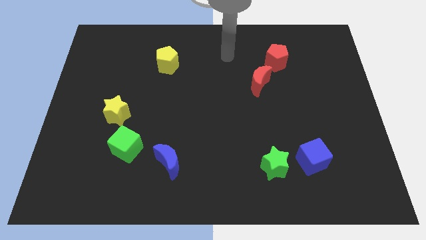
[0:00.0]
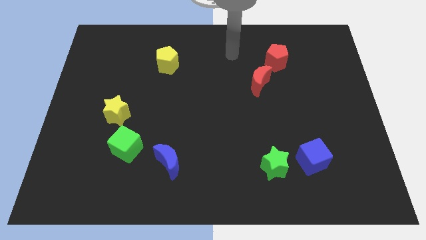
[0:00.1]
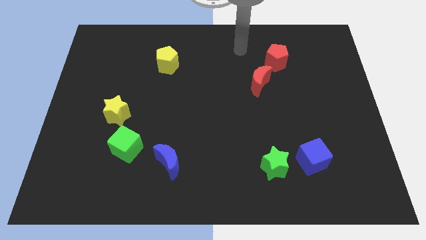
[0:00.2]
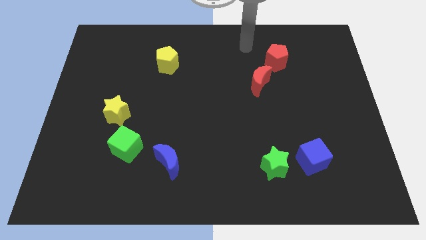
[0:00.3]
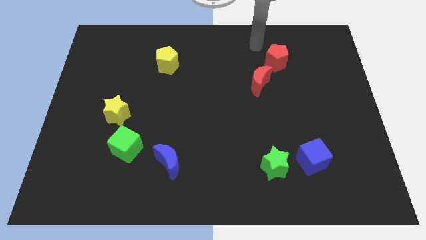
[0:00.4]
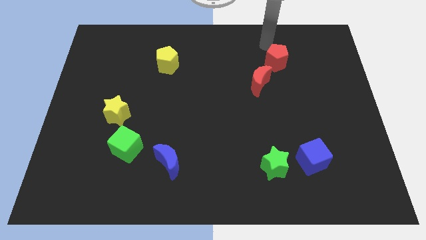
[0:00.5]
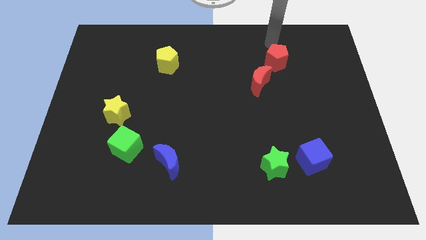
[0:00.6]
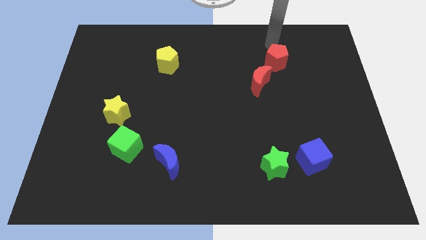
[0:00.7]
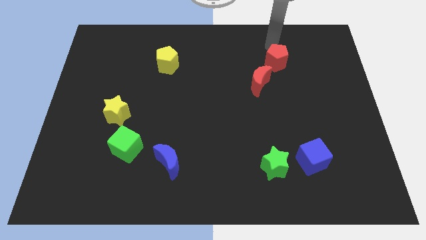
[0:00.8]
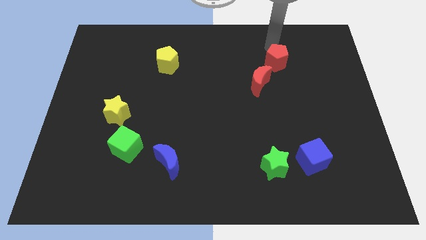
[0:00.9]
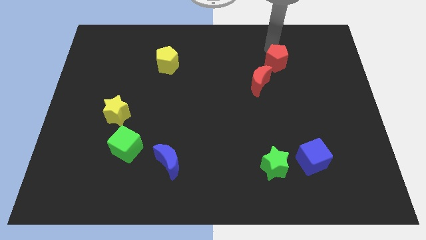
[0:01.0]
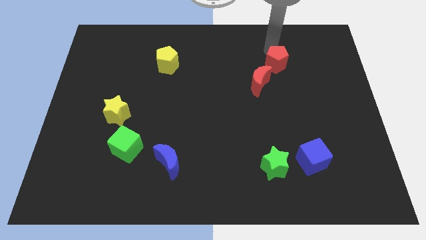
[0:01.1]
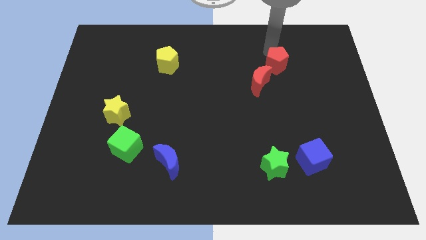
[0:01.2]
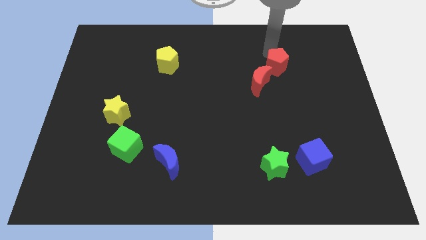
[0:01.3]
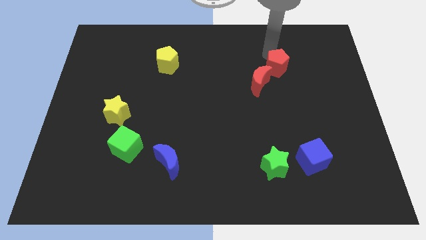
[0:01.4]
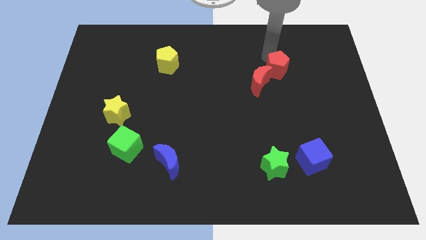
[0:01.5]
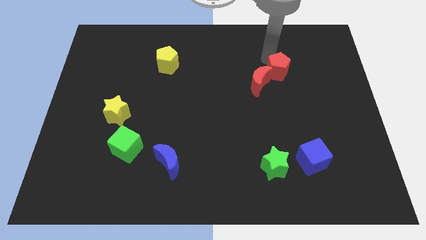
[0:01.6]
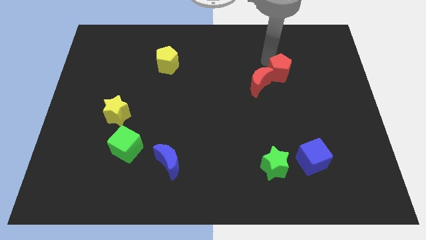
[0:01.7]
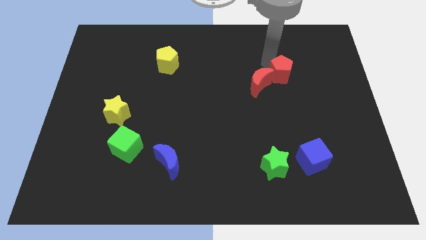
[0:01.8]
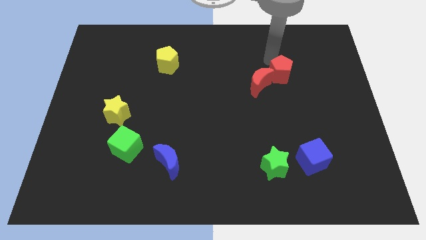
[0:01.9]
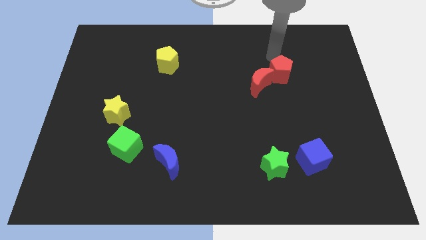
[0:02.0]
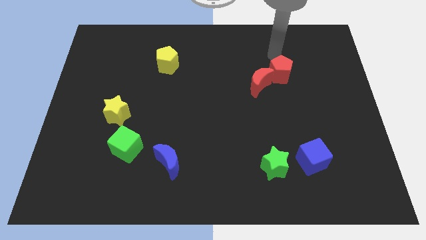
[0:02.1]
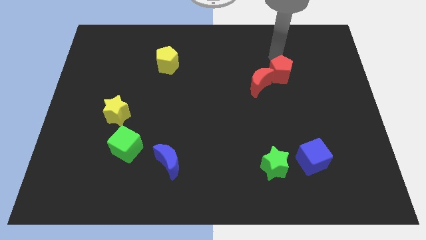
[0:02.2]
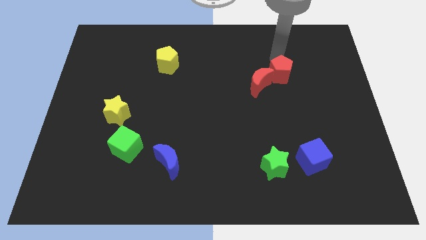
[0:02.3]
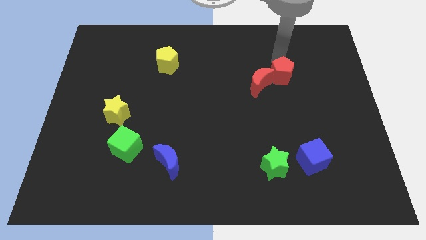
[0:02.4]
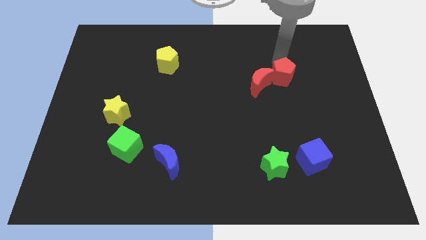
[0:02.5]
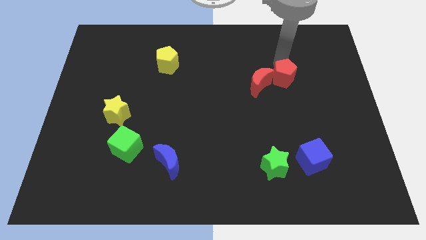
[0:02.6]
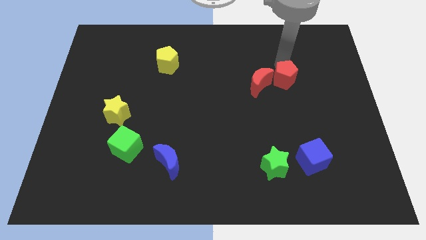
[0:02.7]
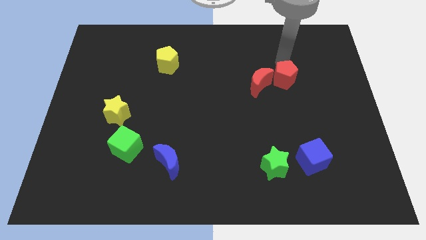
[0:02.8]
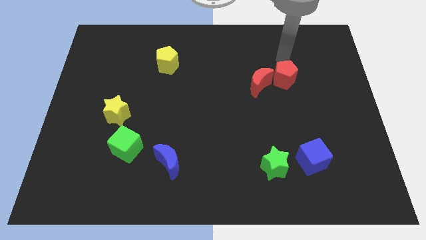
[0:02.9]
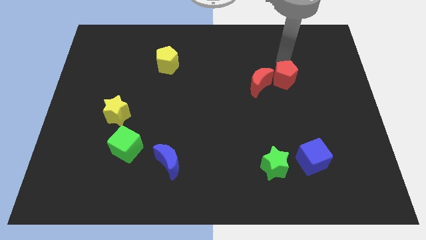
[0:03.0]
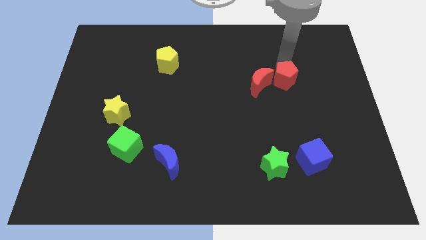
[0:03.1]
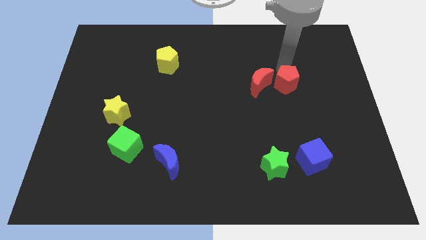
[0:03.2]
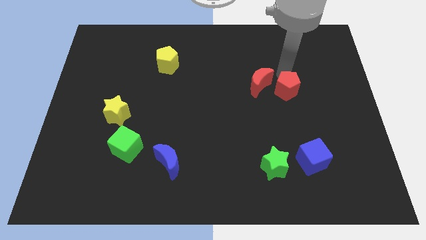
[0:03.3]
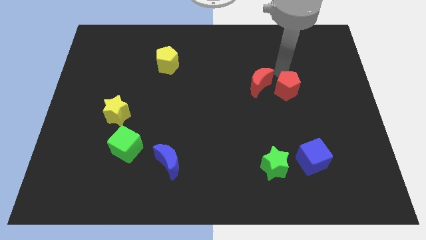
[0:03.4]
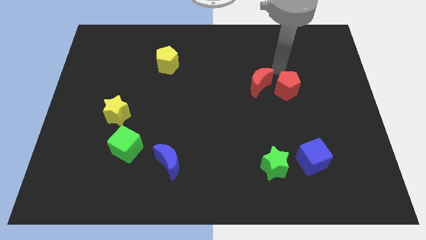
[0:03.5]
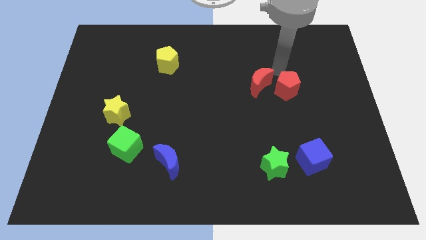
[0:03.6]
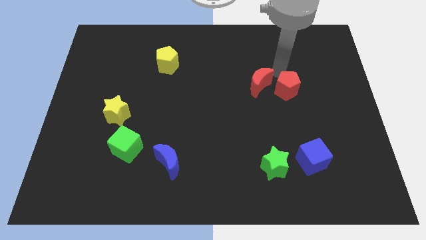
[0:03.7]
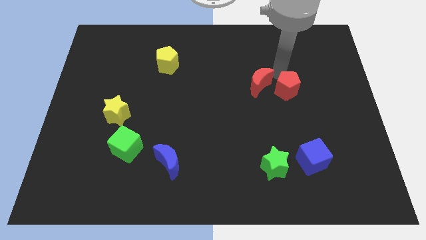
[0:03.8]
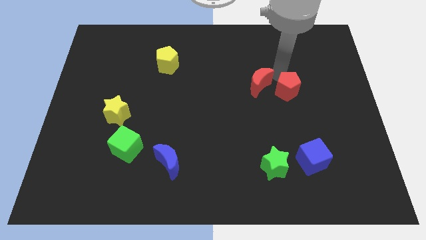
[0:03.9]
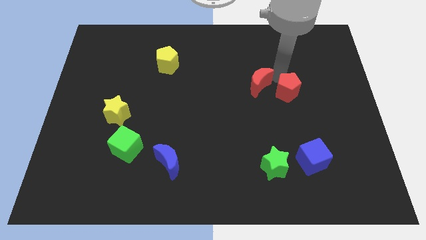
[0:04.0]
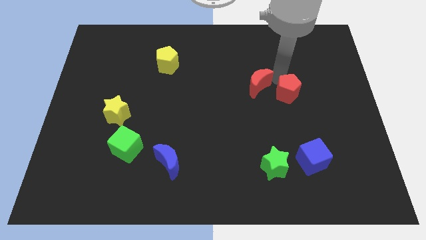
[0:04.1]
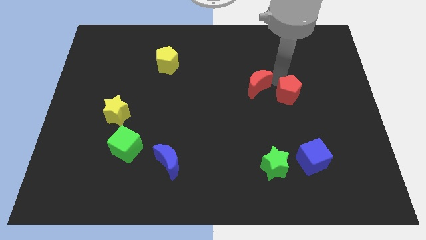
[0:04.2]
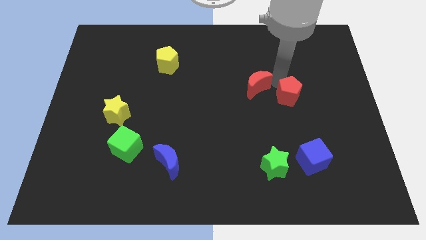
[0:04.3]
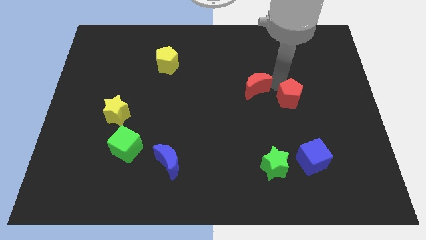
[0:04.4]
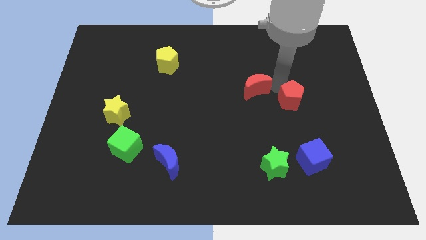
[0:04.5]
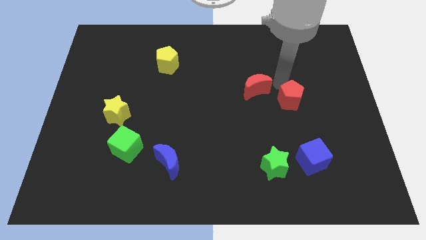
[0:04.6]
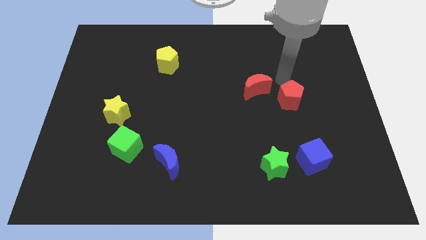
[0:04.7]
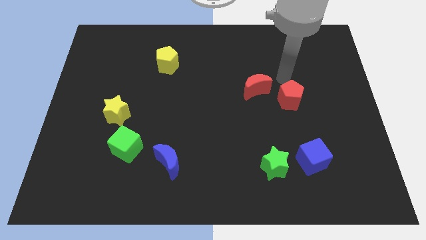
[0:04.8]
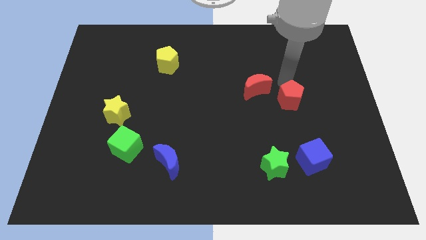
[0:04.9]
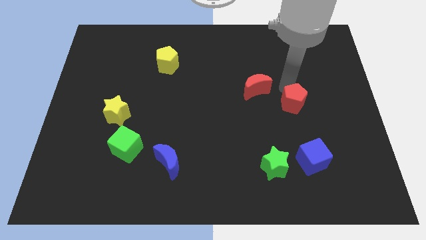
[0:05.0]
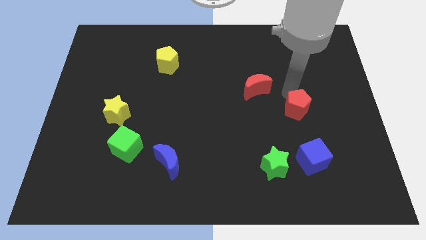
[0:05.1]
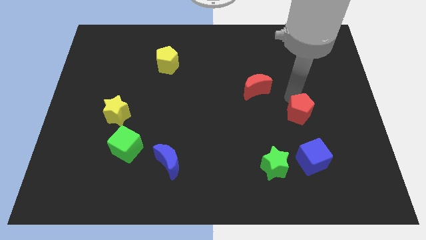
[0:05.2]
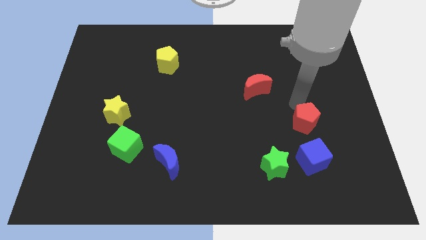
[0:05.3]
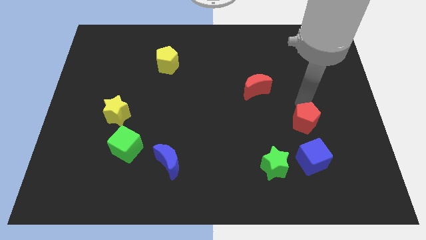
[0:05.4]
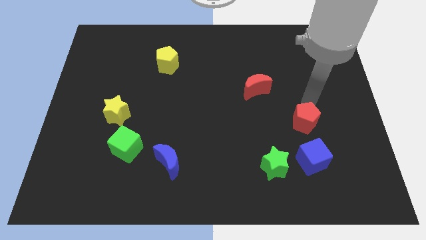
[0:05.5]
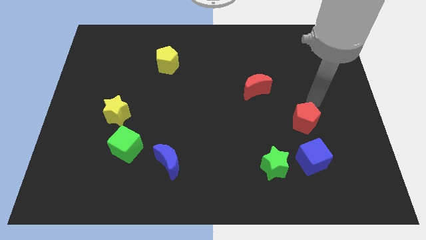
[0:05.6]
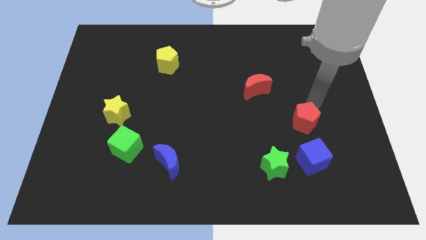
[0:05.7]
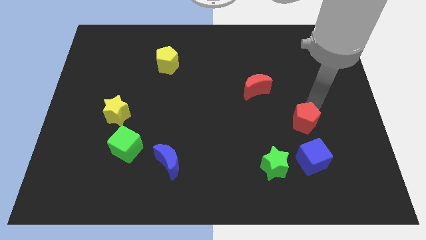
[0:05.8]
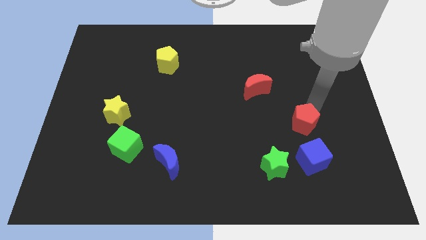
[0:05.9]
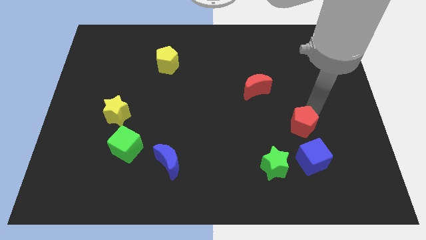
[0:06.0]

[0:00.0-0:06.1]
move the red pentagon downwards

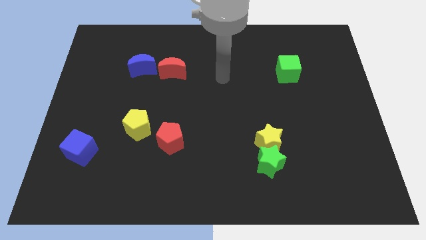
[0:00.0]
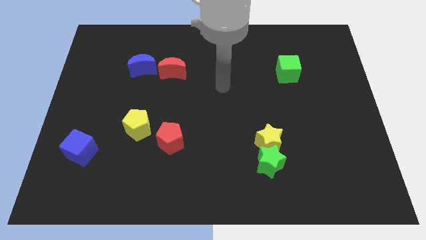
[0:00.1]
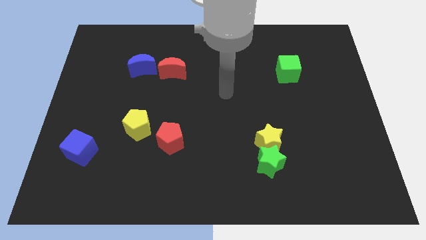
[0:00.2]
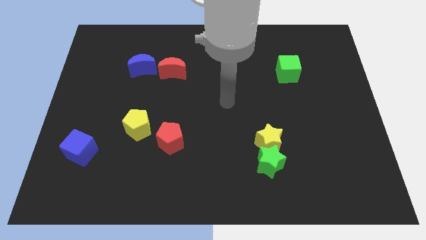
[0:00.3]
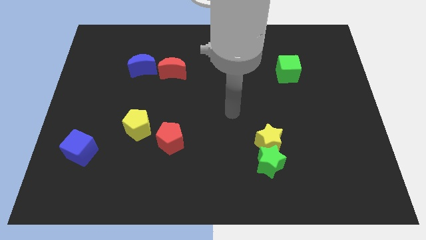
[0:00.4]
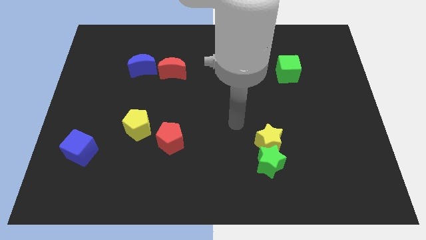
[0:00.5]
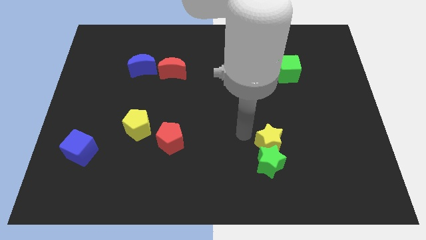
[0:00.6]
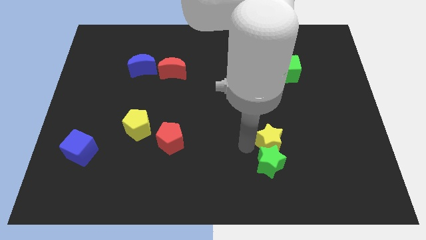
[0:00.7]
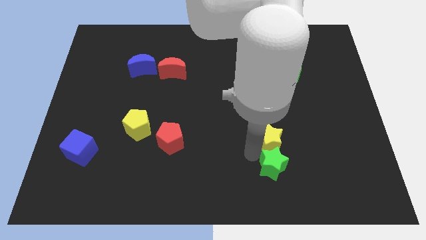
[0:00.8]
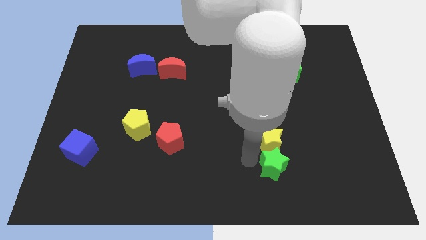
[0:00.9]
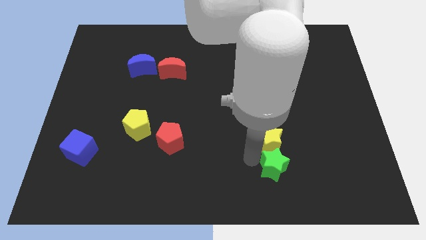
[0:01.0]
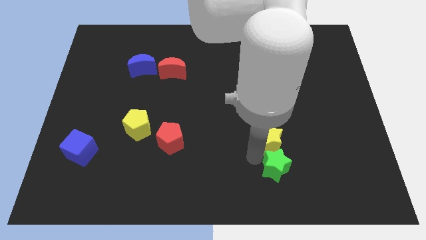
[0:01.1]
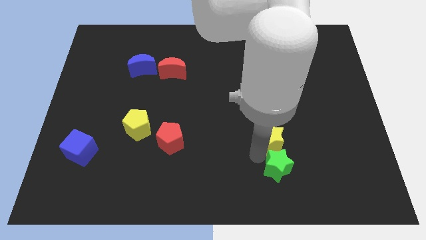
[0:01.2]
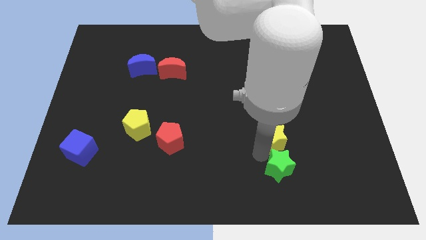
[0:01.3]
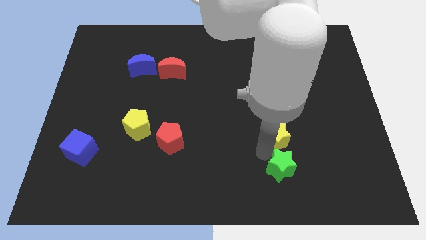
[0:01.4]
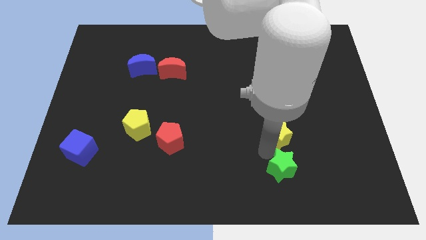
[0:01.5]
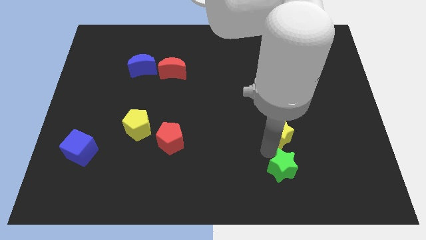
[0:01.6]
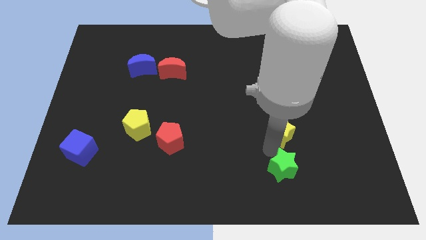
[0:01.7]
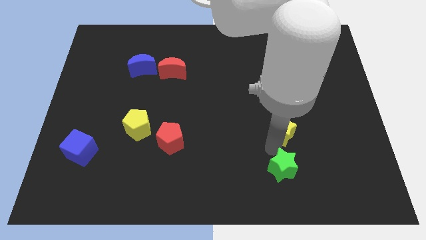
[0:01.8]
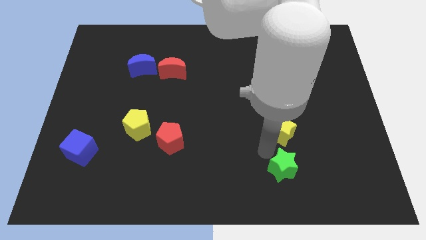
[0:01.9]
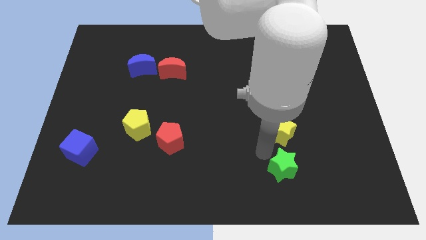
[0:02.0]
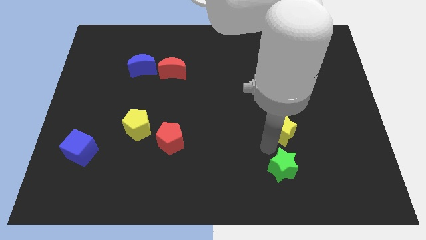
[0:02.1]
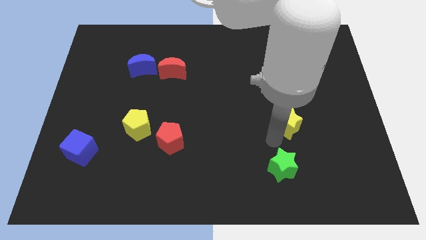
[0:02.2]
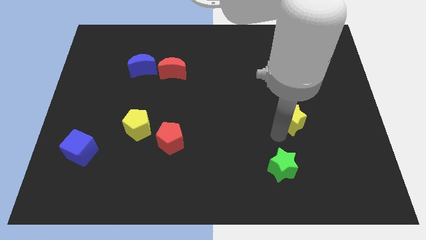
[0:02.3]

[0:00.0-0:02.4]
slightly move the yellow star upwards and then right
